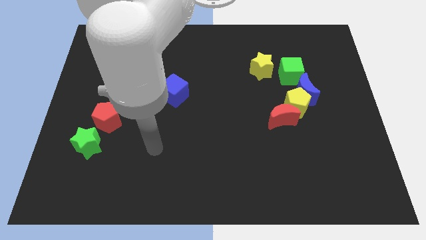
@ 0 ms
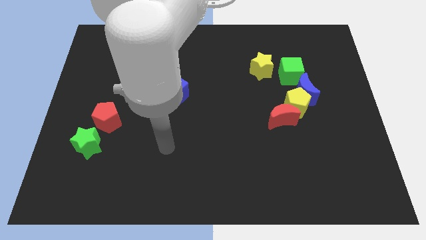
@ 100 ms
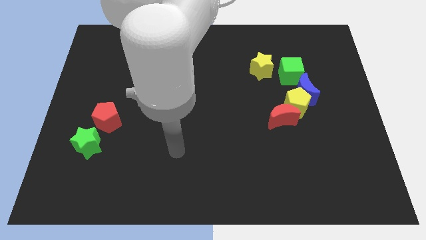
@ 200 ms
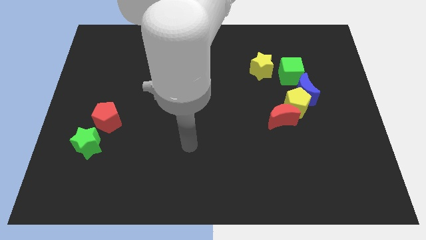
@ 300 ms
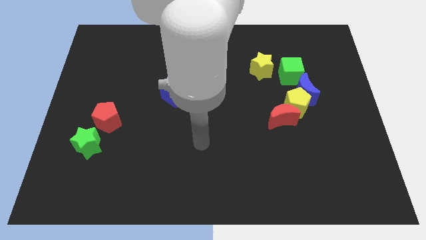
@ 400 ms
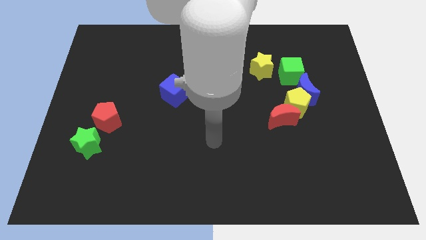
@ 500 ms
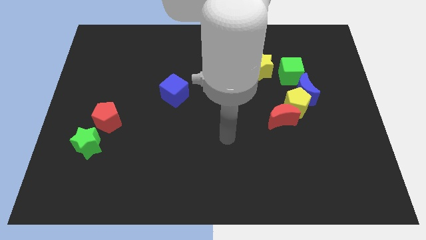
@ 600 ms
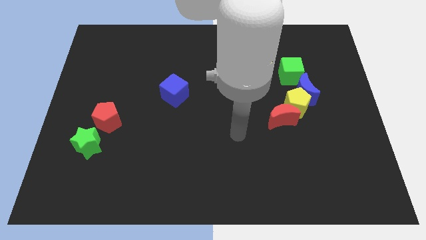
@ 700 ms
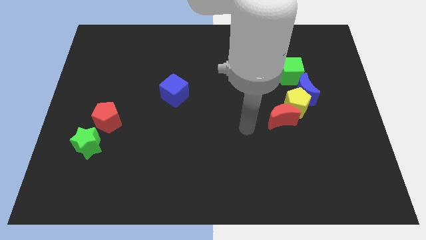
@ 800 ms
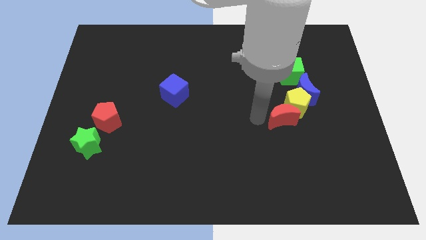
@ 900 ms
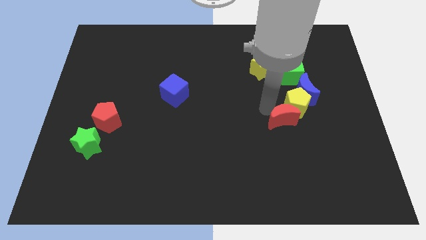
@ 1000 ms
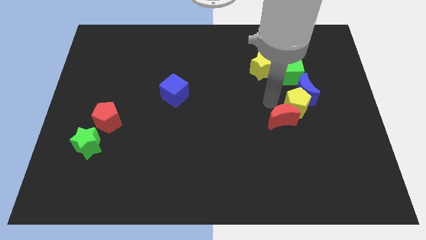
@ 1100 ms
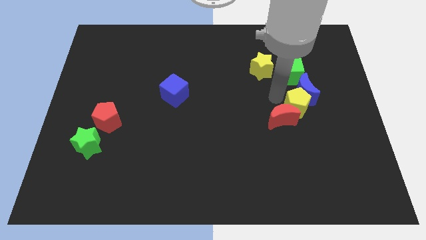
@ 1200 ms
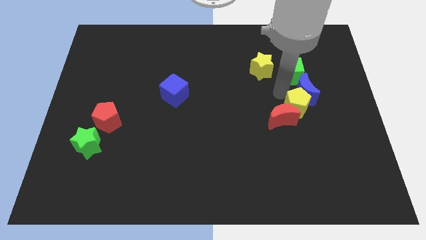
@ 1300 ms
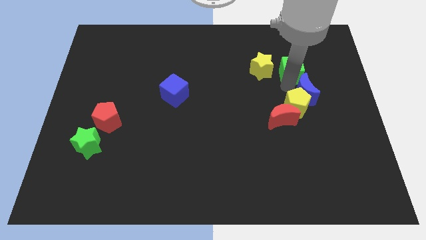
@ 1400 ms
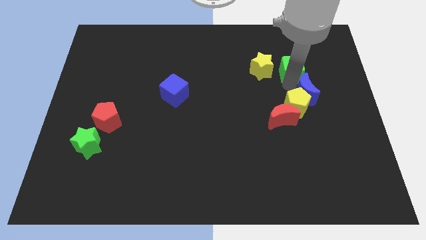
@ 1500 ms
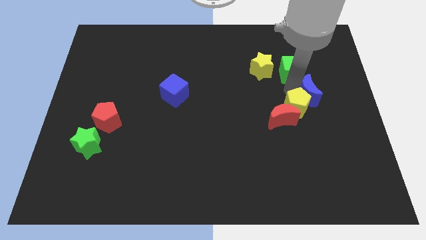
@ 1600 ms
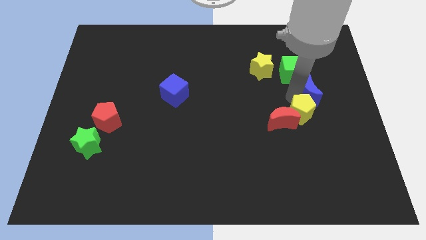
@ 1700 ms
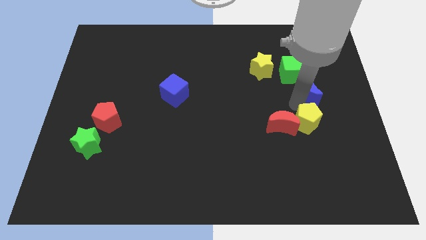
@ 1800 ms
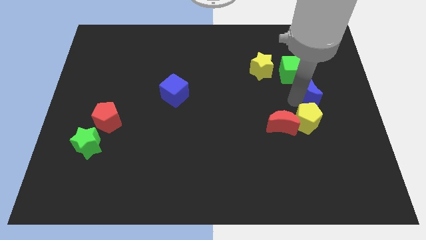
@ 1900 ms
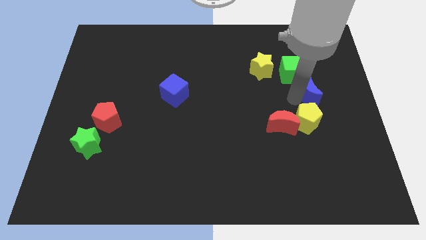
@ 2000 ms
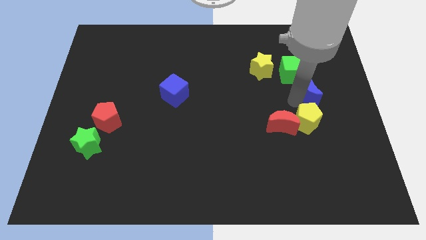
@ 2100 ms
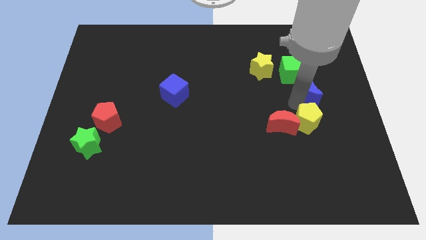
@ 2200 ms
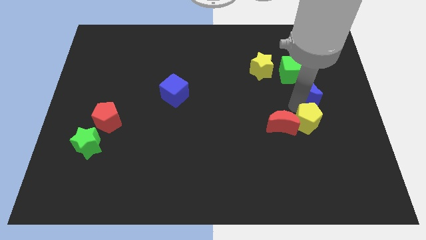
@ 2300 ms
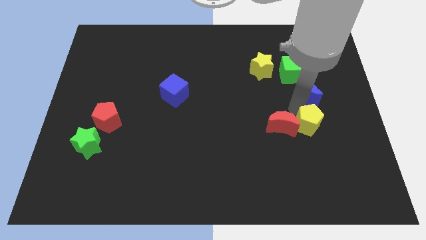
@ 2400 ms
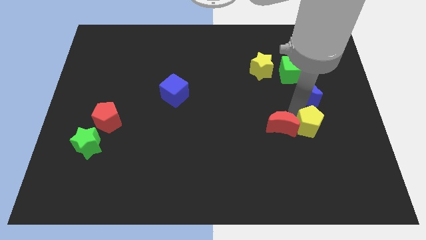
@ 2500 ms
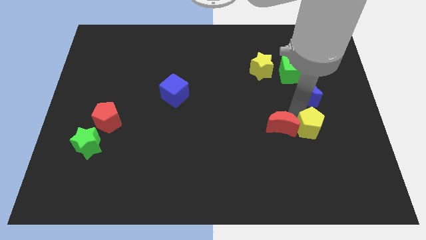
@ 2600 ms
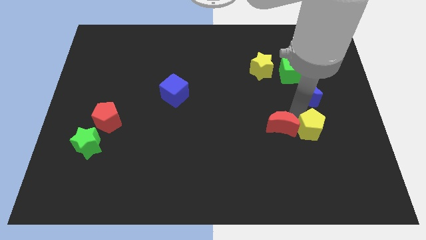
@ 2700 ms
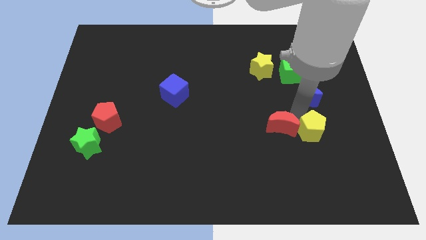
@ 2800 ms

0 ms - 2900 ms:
pull the yellow pentagon apart from the clump

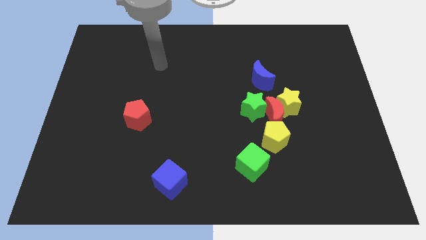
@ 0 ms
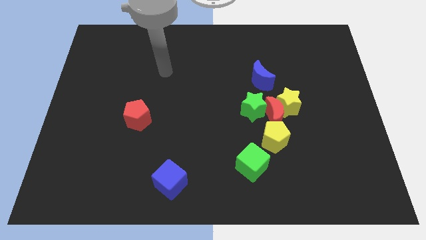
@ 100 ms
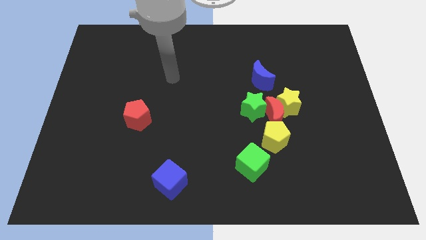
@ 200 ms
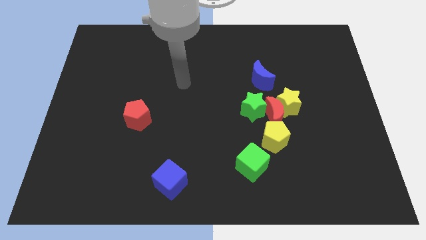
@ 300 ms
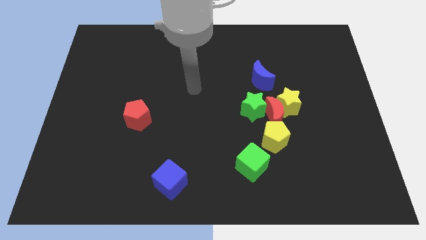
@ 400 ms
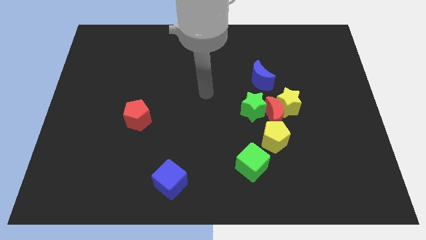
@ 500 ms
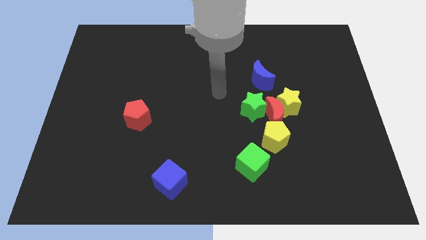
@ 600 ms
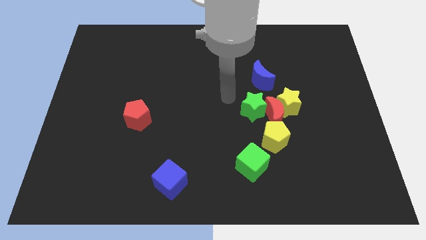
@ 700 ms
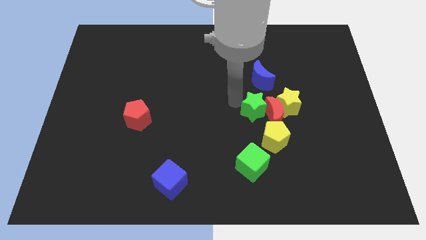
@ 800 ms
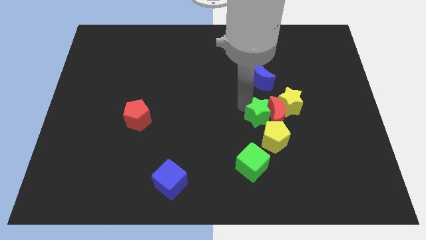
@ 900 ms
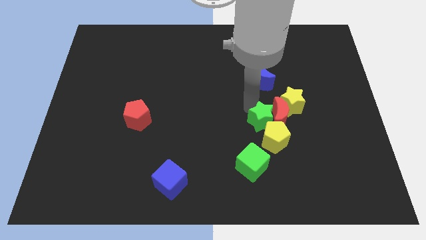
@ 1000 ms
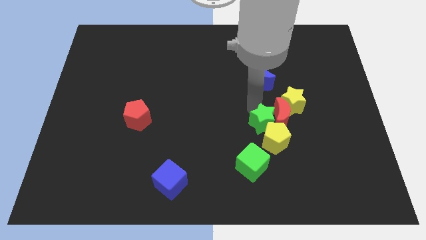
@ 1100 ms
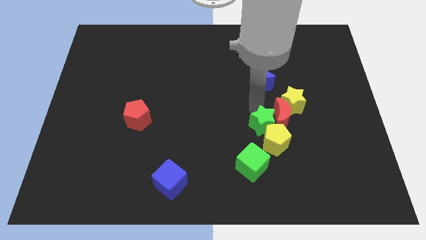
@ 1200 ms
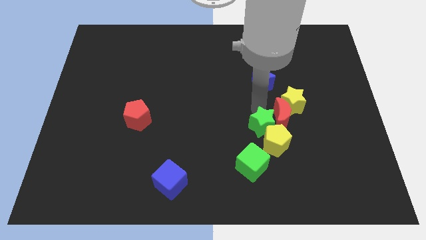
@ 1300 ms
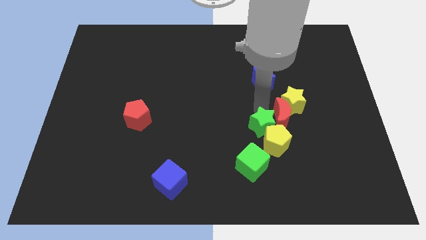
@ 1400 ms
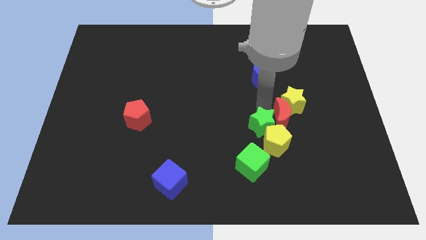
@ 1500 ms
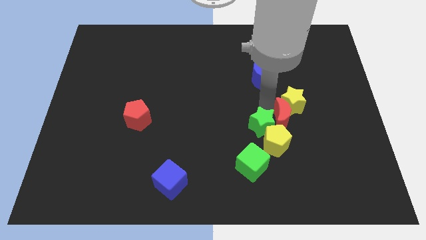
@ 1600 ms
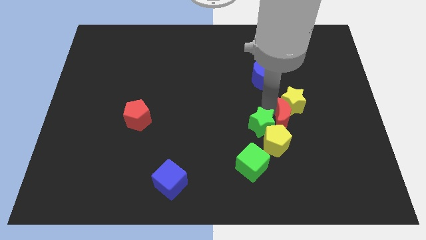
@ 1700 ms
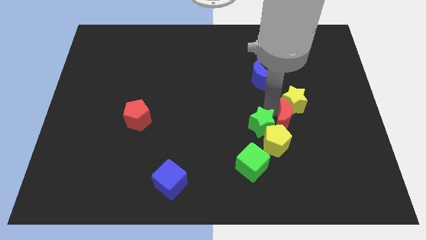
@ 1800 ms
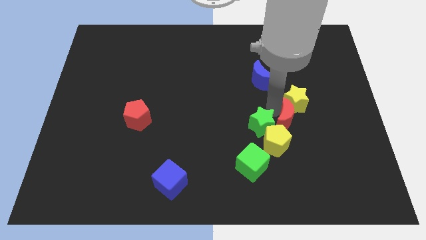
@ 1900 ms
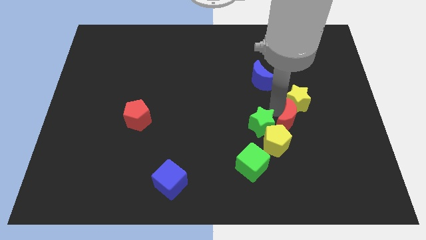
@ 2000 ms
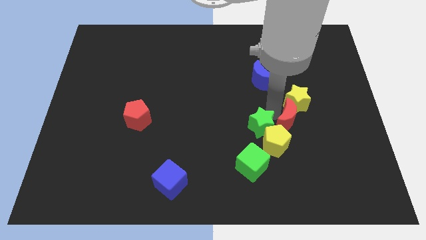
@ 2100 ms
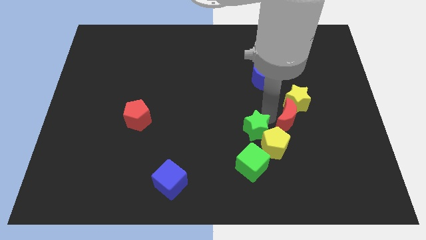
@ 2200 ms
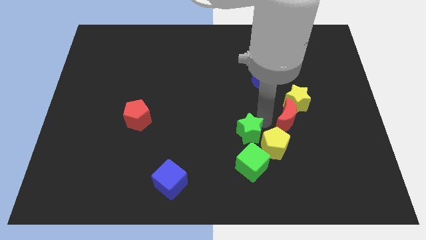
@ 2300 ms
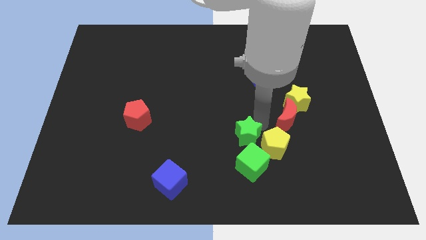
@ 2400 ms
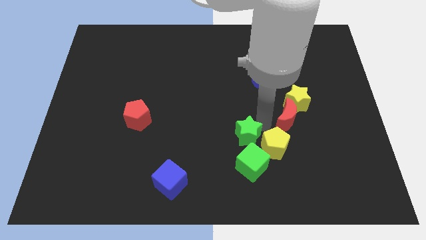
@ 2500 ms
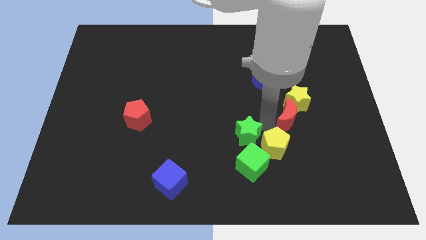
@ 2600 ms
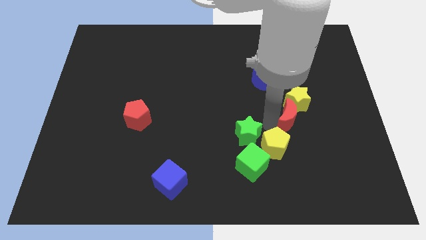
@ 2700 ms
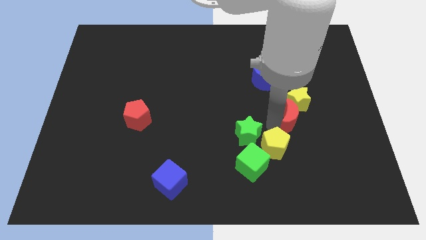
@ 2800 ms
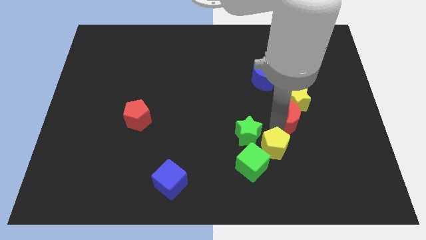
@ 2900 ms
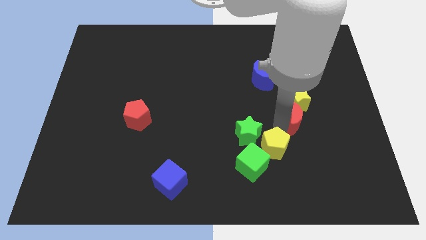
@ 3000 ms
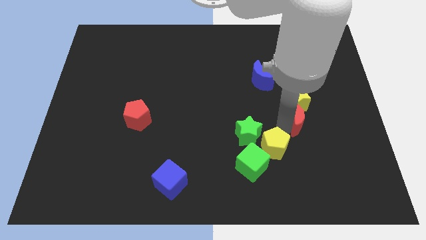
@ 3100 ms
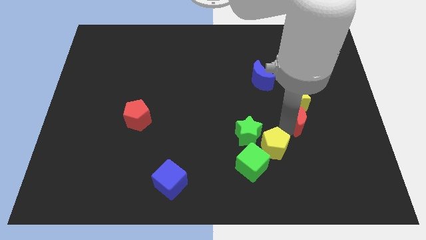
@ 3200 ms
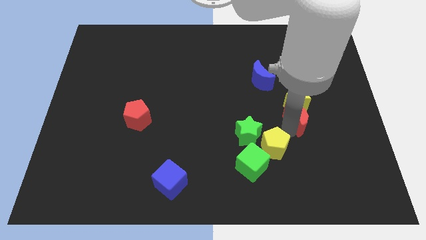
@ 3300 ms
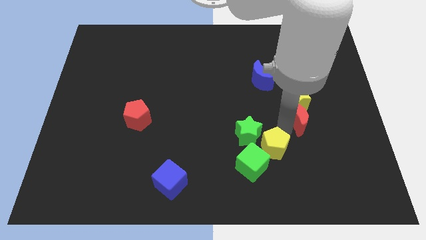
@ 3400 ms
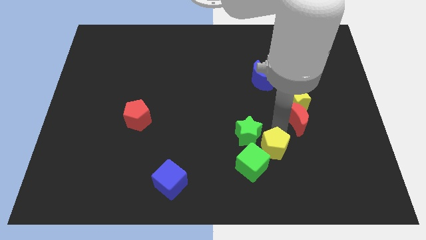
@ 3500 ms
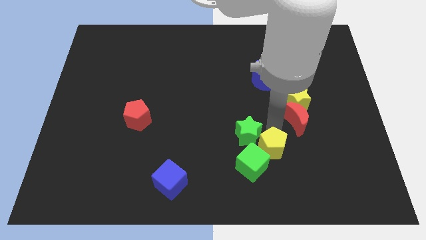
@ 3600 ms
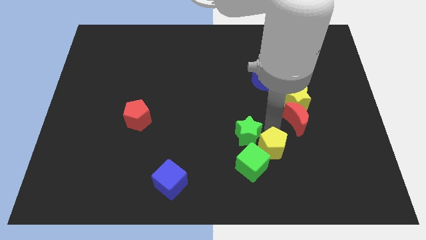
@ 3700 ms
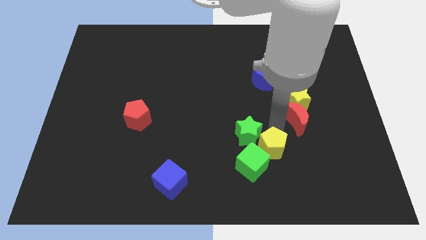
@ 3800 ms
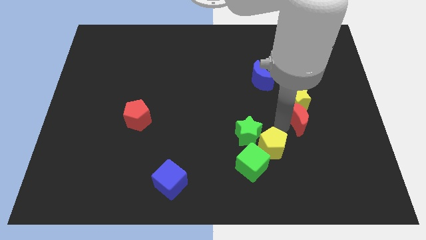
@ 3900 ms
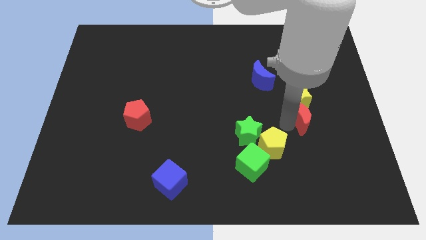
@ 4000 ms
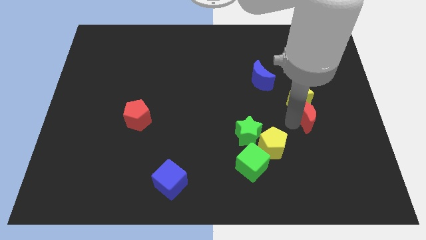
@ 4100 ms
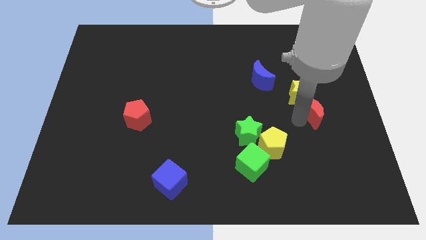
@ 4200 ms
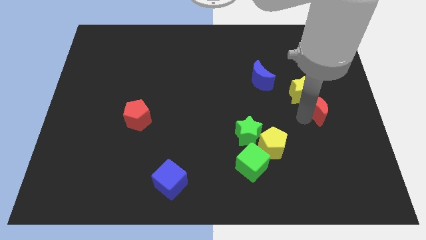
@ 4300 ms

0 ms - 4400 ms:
move the red moon away from the group

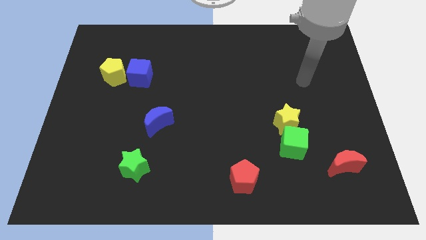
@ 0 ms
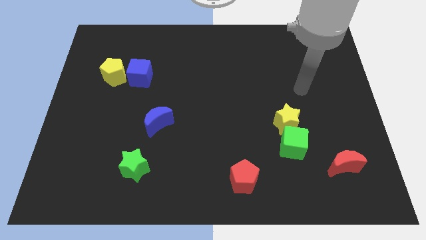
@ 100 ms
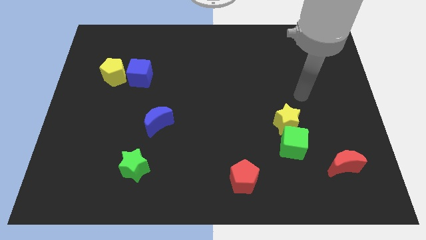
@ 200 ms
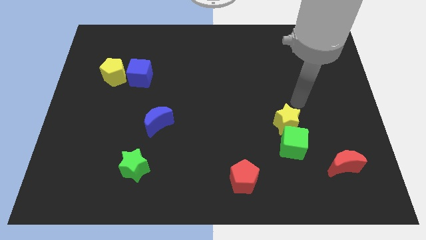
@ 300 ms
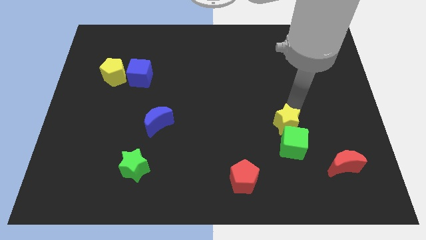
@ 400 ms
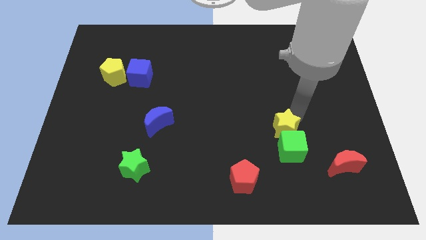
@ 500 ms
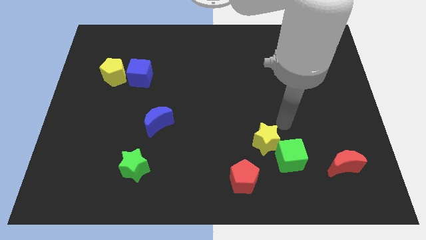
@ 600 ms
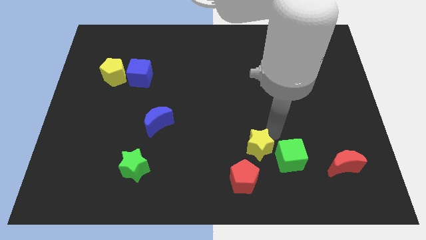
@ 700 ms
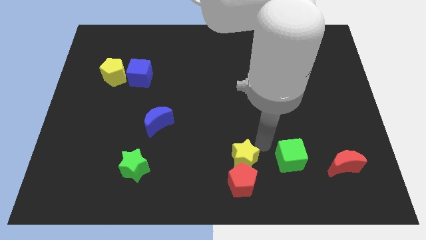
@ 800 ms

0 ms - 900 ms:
pull the green cube apart from the yellow star

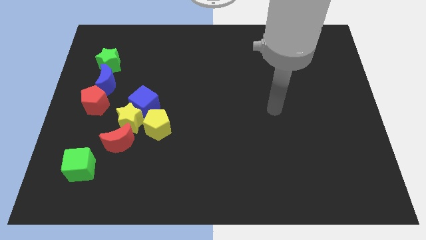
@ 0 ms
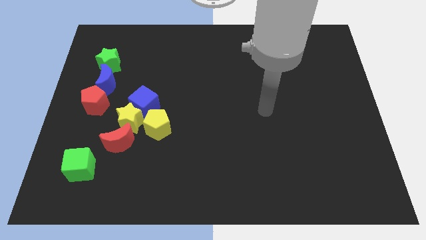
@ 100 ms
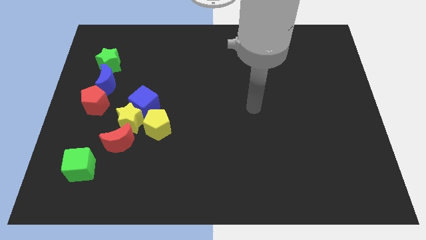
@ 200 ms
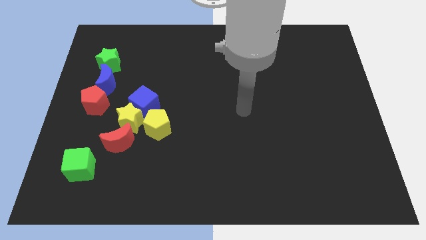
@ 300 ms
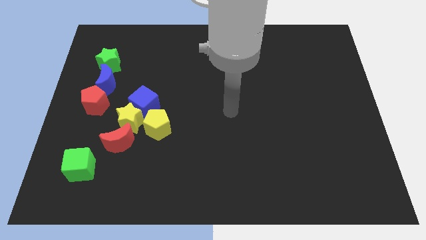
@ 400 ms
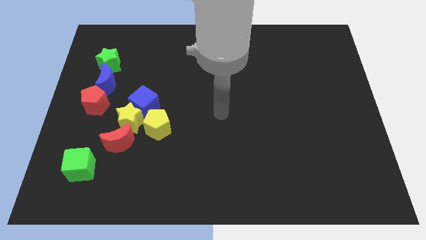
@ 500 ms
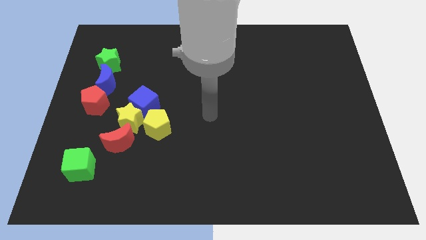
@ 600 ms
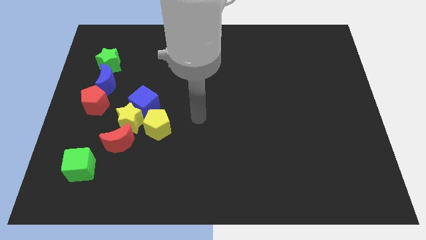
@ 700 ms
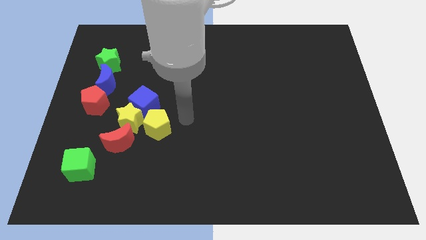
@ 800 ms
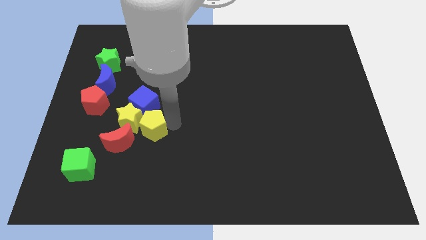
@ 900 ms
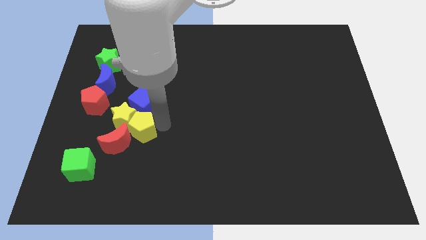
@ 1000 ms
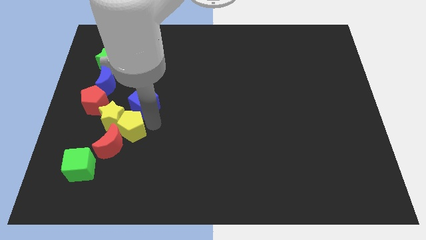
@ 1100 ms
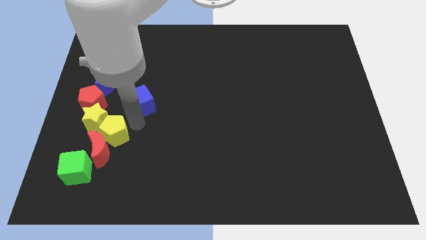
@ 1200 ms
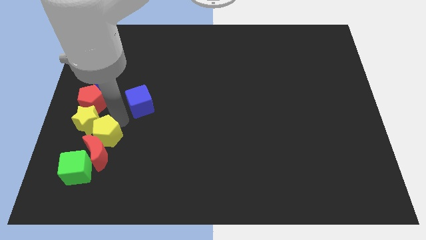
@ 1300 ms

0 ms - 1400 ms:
move the blue cube away from the yellow star and yellow pentagon
